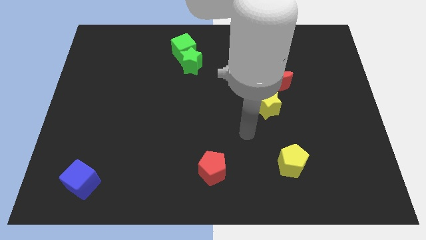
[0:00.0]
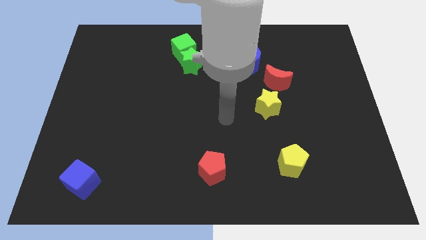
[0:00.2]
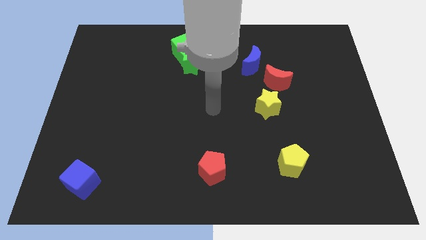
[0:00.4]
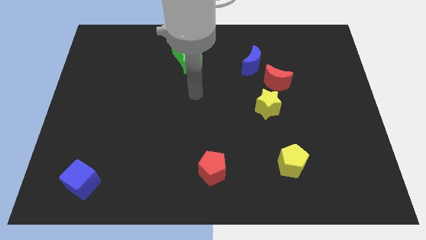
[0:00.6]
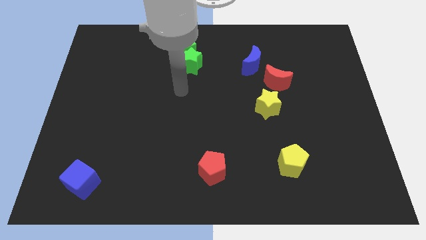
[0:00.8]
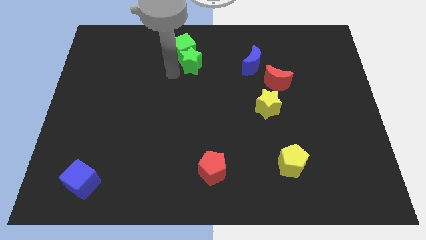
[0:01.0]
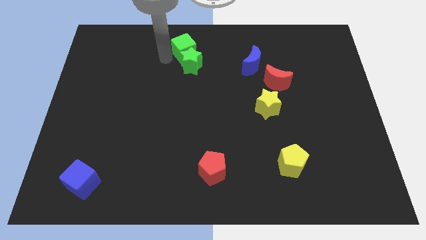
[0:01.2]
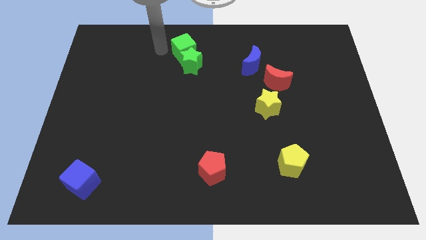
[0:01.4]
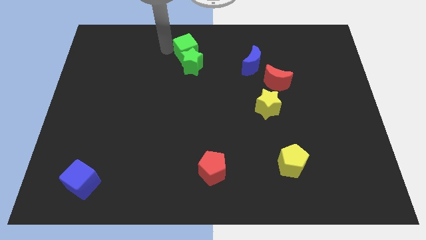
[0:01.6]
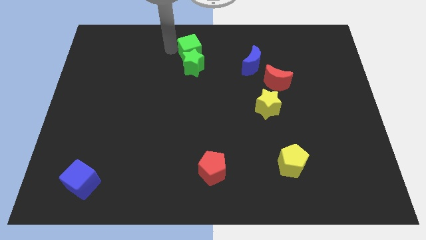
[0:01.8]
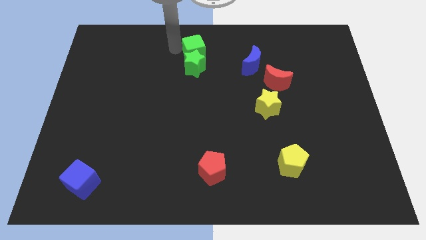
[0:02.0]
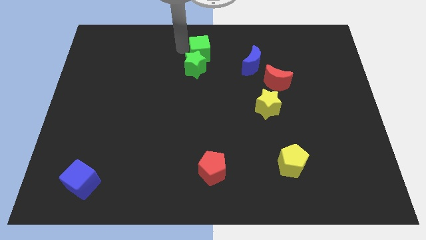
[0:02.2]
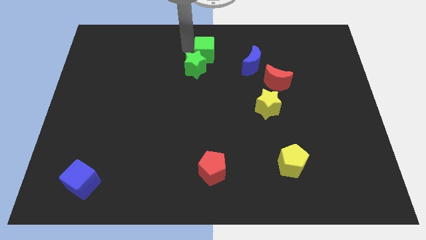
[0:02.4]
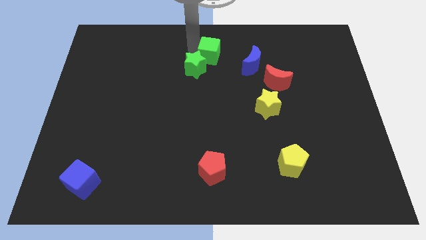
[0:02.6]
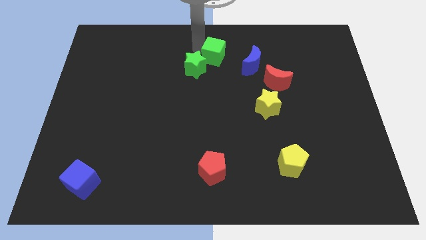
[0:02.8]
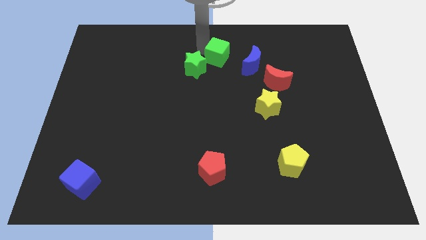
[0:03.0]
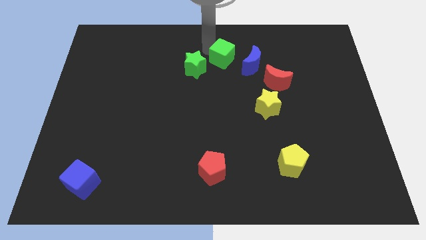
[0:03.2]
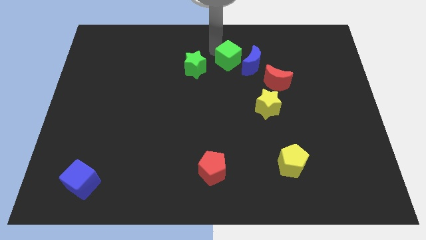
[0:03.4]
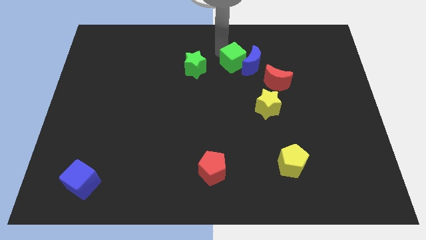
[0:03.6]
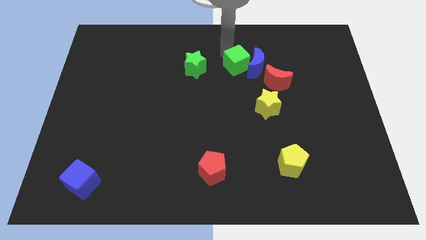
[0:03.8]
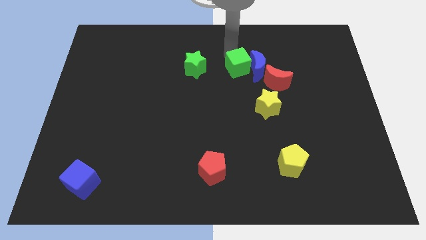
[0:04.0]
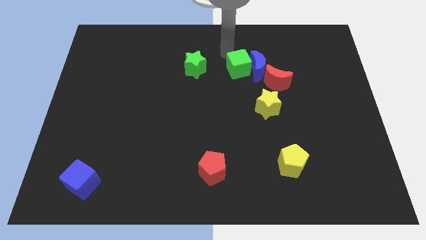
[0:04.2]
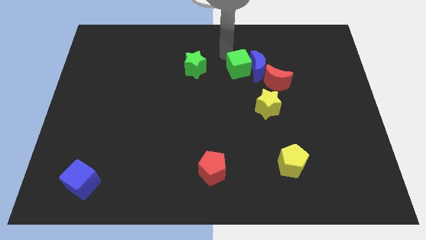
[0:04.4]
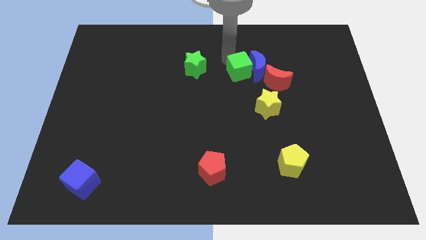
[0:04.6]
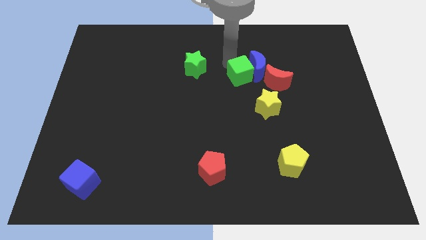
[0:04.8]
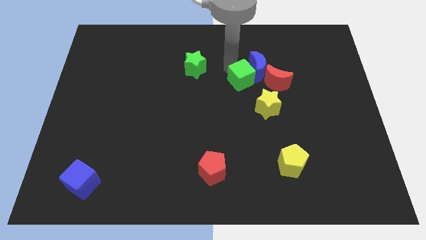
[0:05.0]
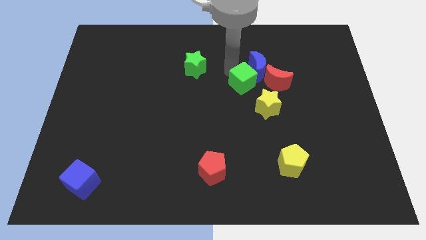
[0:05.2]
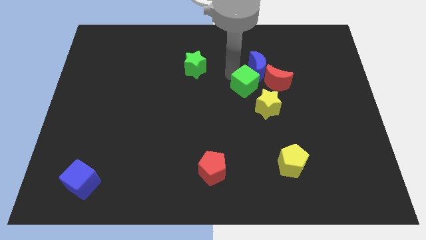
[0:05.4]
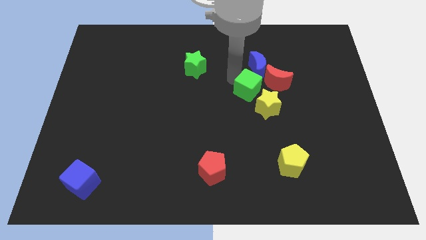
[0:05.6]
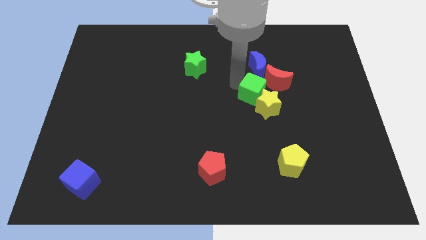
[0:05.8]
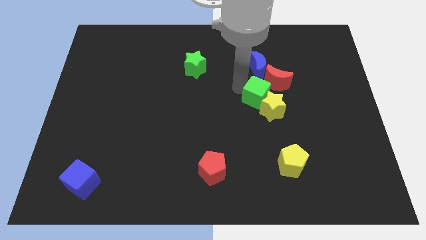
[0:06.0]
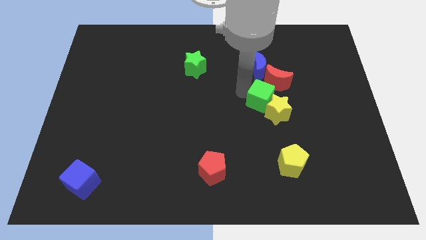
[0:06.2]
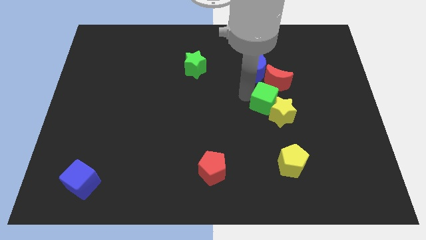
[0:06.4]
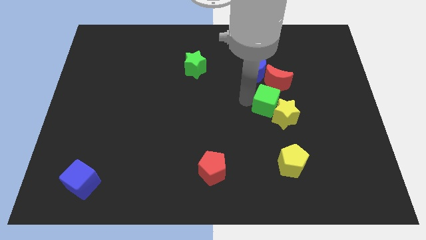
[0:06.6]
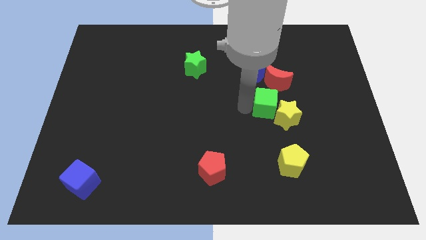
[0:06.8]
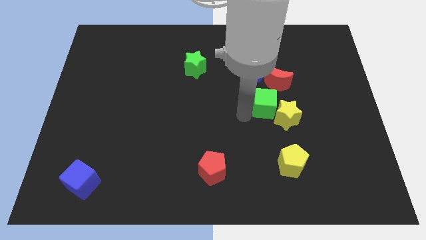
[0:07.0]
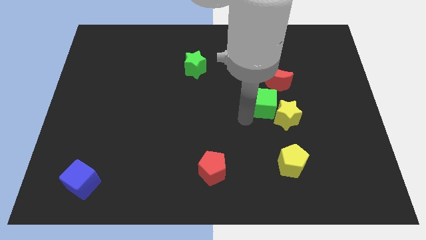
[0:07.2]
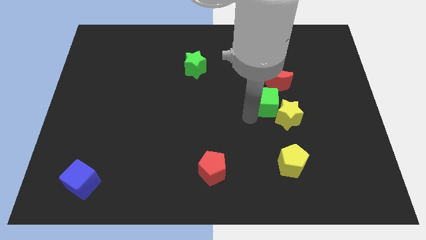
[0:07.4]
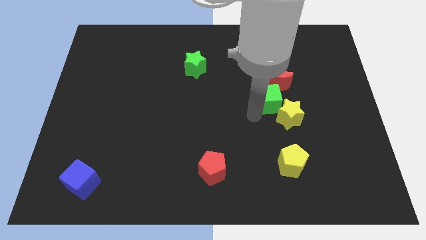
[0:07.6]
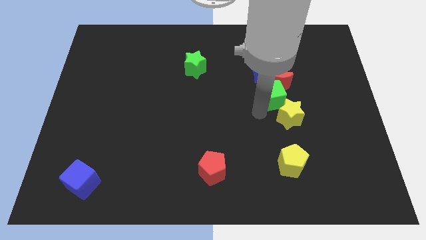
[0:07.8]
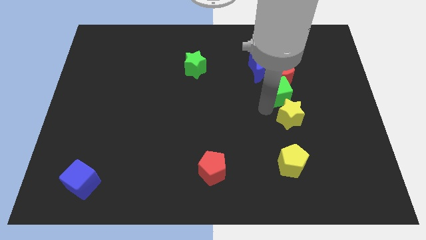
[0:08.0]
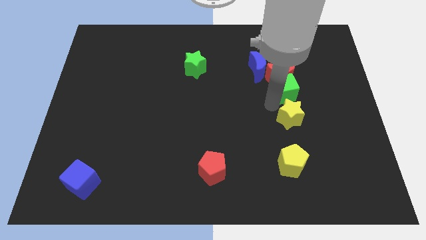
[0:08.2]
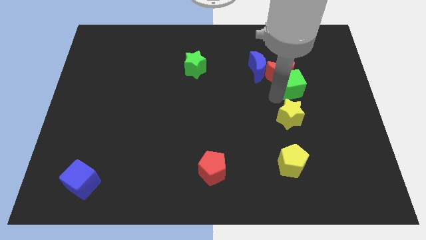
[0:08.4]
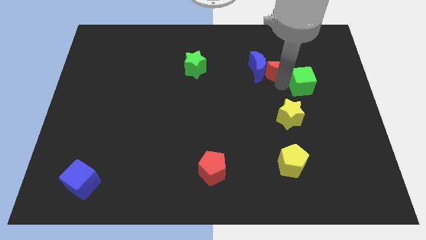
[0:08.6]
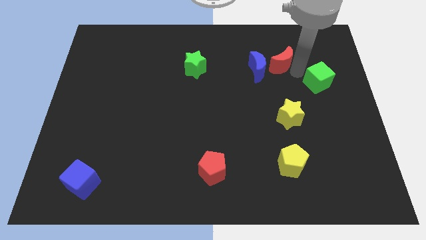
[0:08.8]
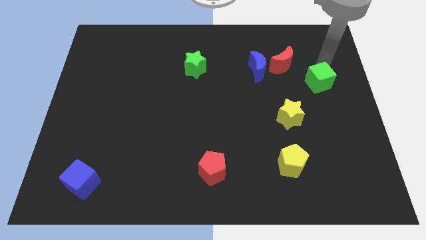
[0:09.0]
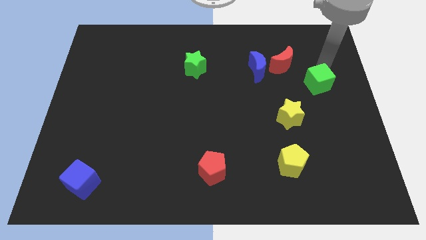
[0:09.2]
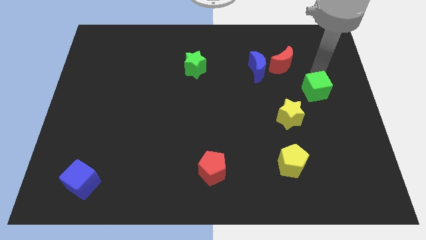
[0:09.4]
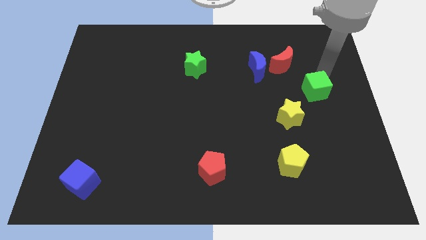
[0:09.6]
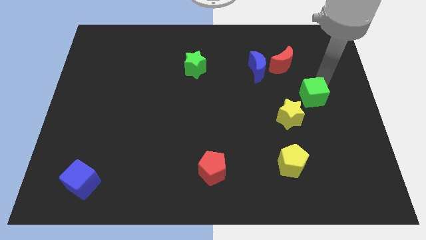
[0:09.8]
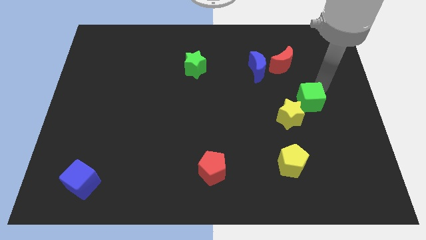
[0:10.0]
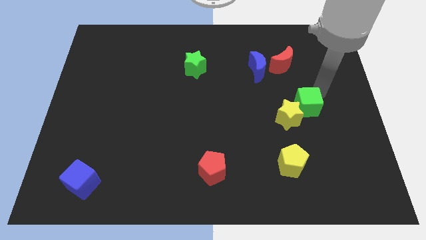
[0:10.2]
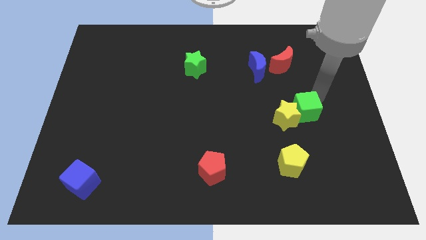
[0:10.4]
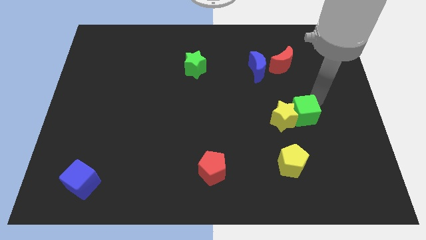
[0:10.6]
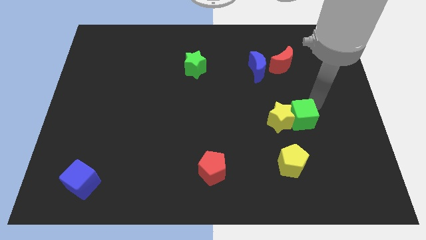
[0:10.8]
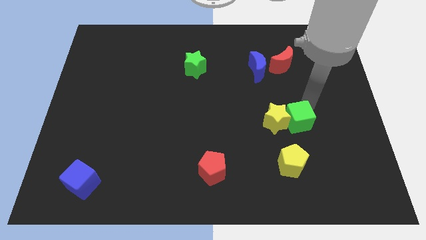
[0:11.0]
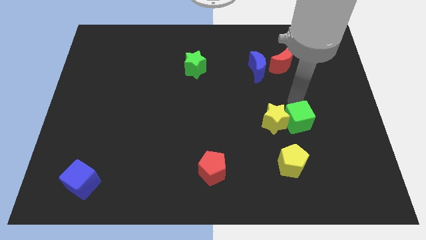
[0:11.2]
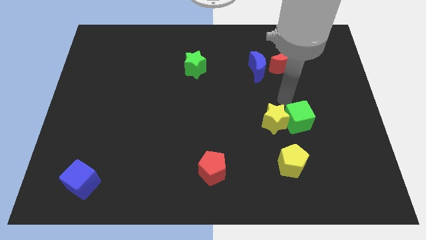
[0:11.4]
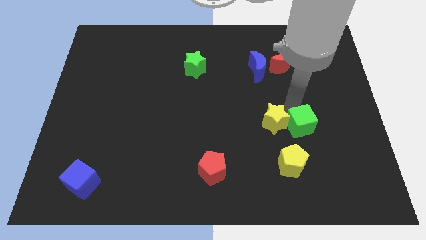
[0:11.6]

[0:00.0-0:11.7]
slide the green cube diagonally up and to the right of the yellow pentagon
